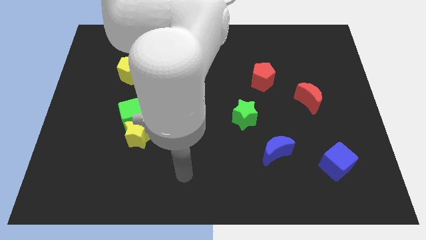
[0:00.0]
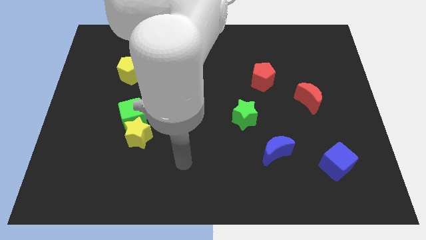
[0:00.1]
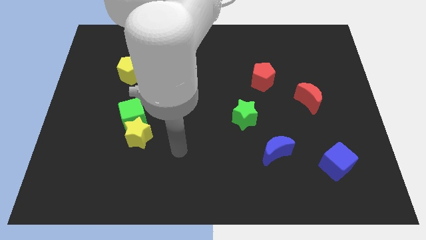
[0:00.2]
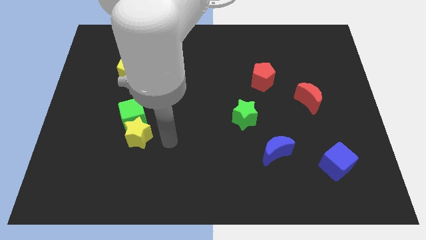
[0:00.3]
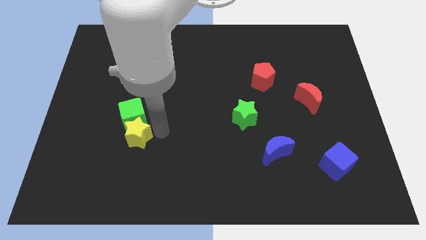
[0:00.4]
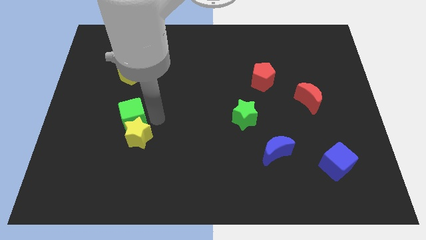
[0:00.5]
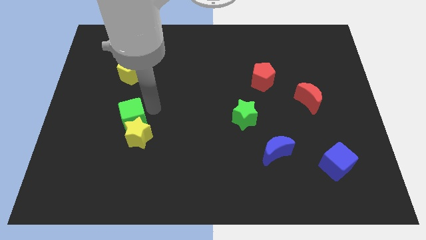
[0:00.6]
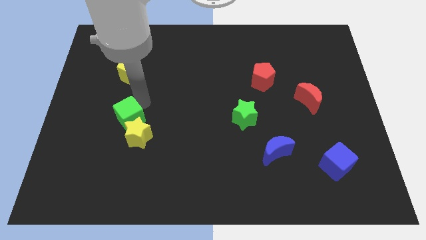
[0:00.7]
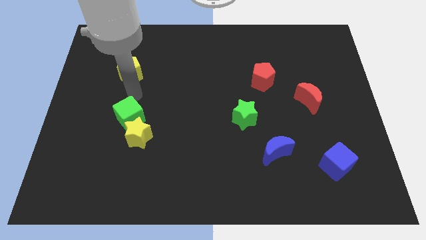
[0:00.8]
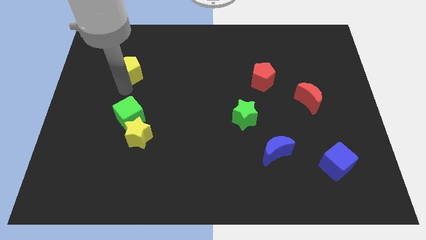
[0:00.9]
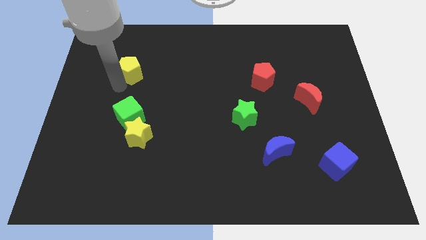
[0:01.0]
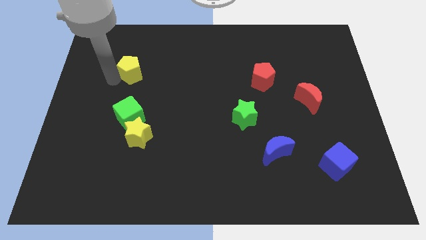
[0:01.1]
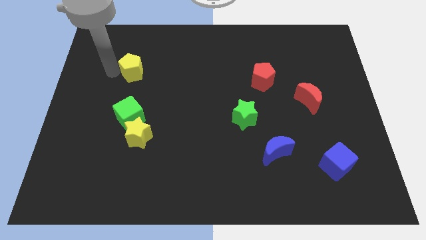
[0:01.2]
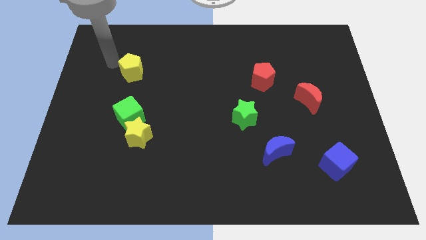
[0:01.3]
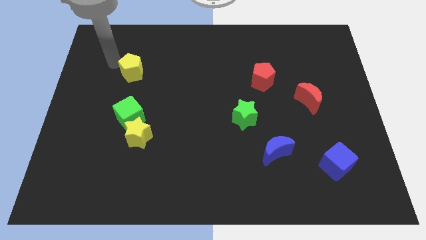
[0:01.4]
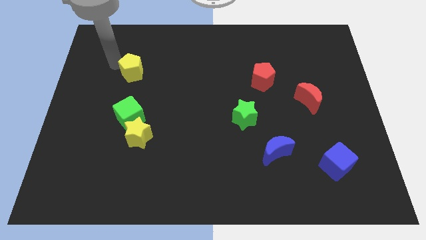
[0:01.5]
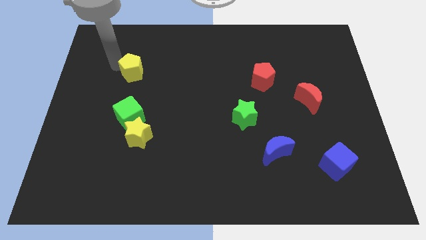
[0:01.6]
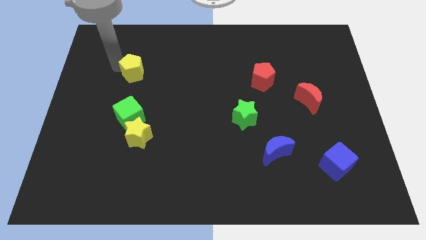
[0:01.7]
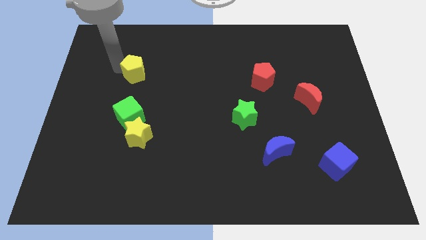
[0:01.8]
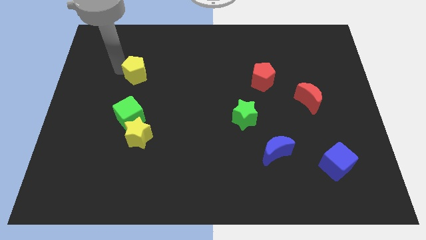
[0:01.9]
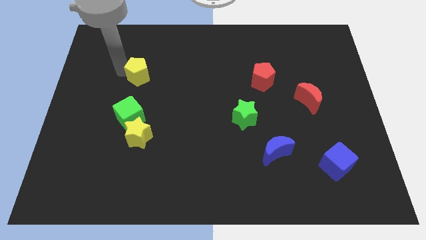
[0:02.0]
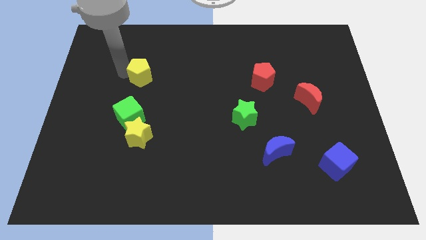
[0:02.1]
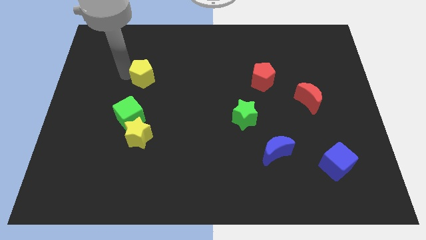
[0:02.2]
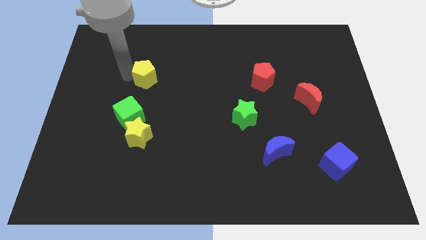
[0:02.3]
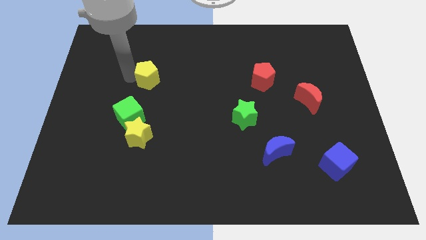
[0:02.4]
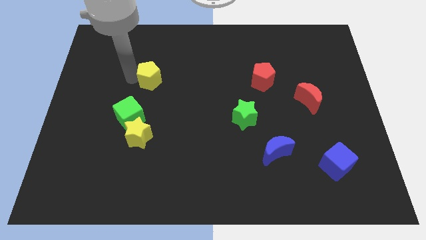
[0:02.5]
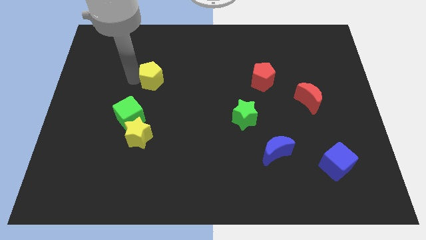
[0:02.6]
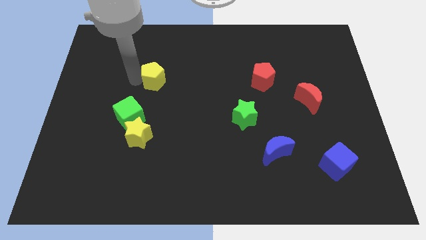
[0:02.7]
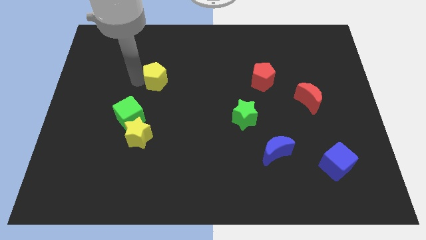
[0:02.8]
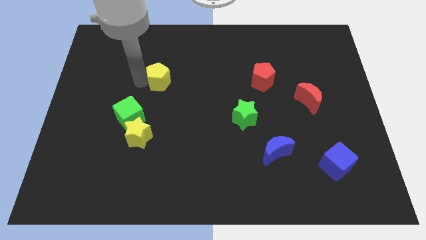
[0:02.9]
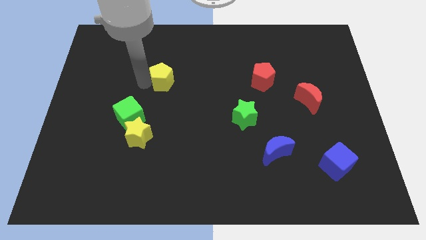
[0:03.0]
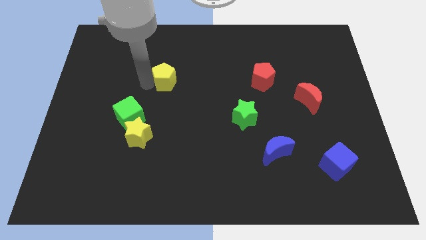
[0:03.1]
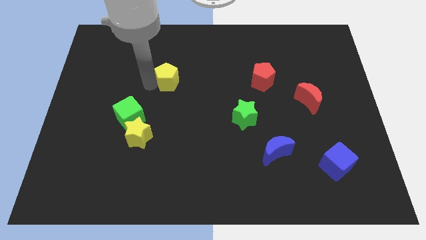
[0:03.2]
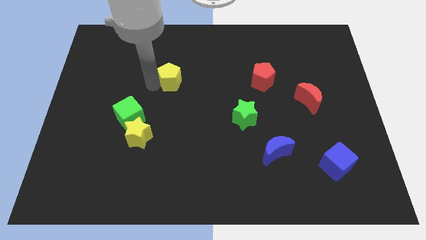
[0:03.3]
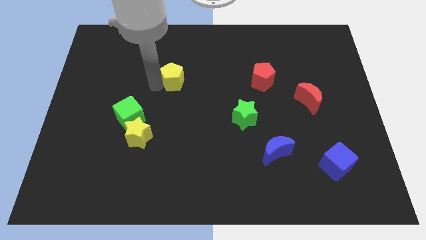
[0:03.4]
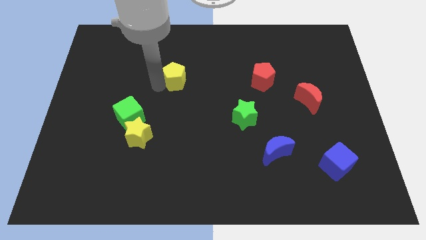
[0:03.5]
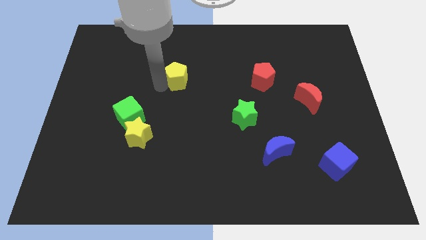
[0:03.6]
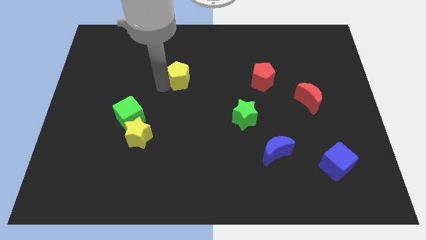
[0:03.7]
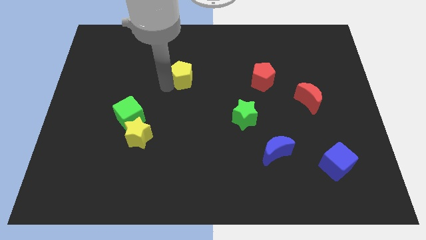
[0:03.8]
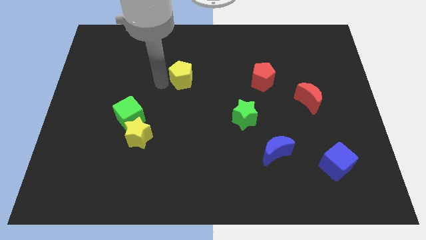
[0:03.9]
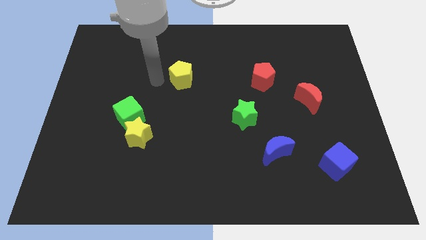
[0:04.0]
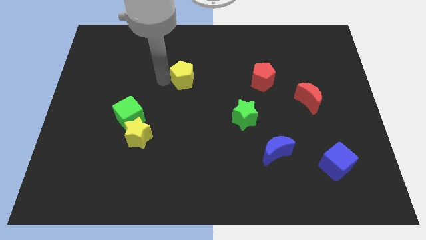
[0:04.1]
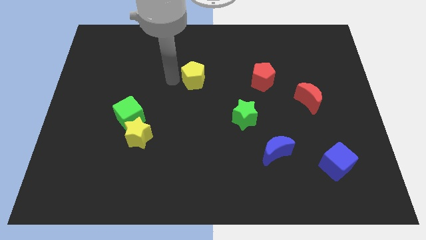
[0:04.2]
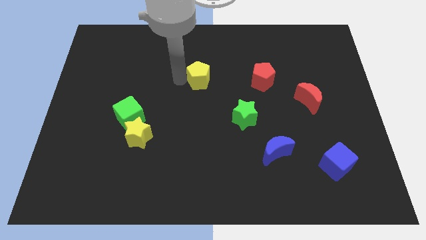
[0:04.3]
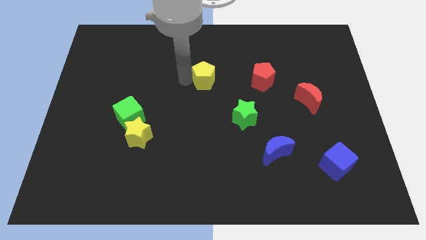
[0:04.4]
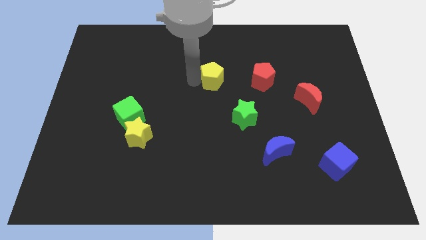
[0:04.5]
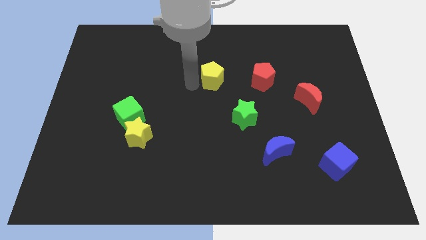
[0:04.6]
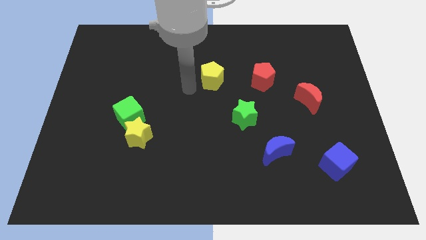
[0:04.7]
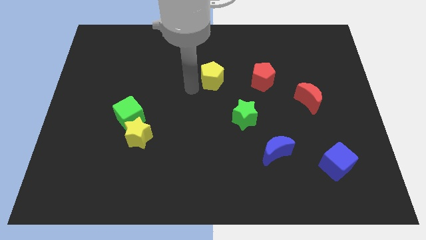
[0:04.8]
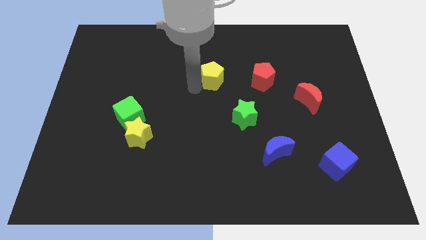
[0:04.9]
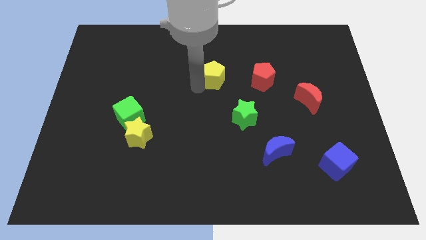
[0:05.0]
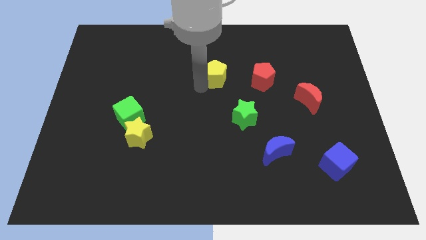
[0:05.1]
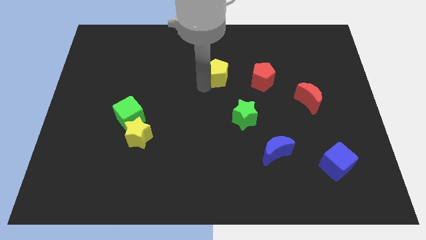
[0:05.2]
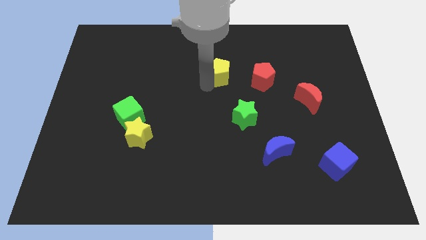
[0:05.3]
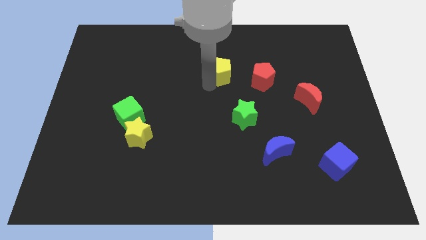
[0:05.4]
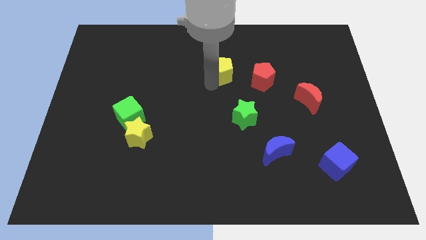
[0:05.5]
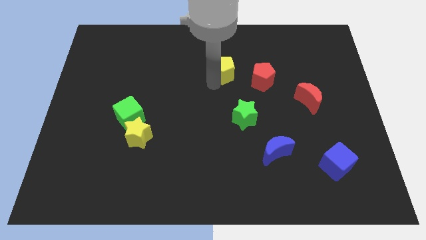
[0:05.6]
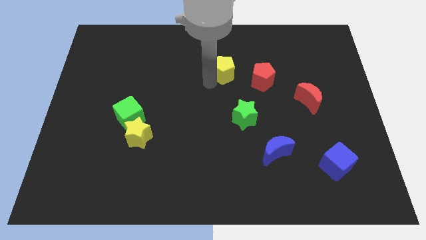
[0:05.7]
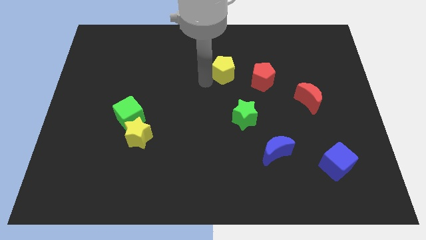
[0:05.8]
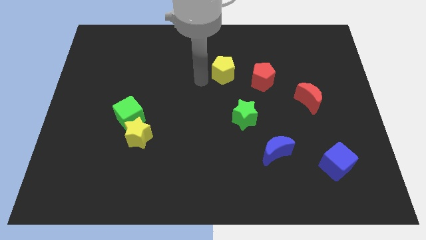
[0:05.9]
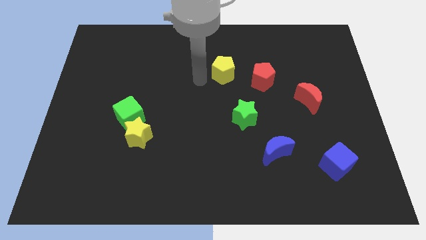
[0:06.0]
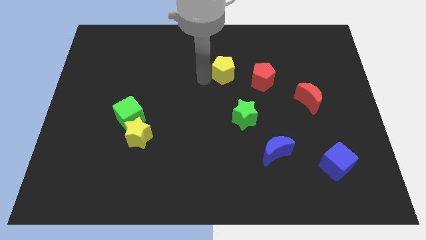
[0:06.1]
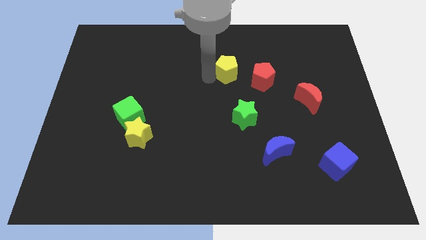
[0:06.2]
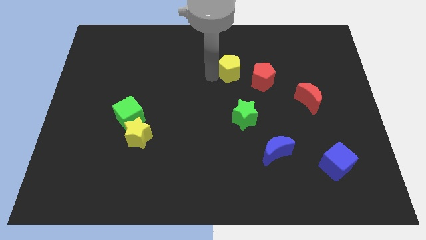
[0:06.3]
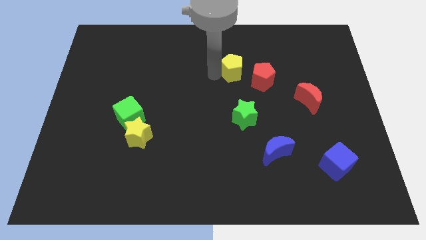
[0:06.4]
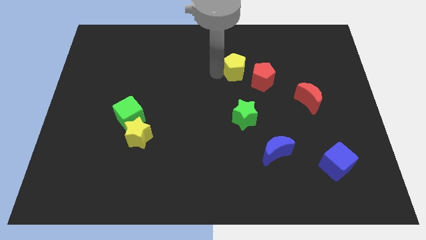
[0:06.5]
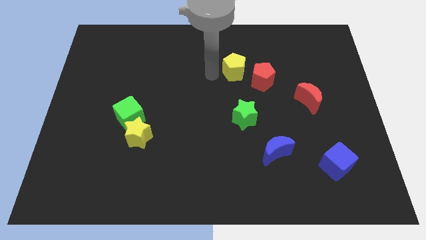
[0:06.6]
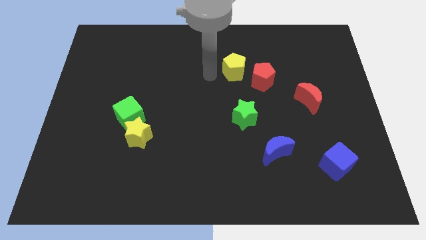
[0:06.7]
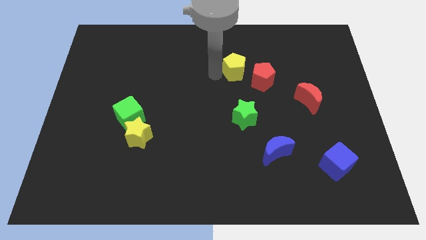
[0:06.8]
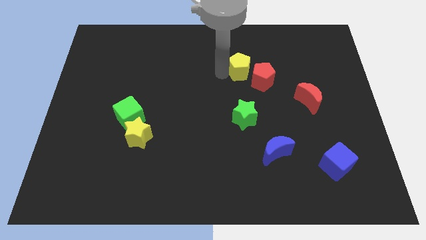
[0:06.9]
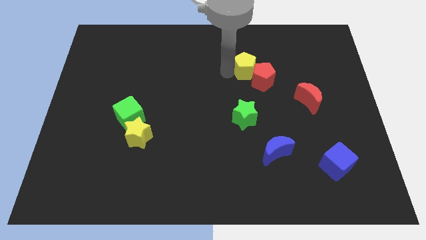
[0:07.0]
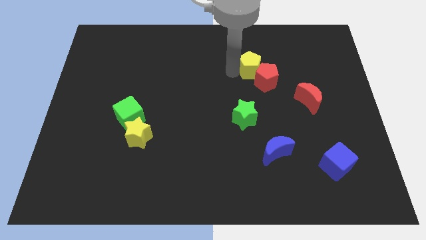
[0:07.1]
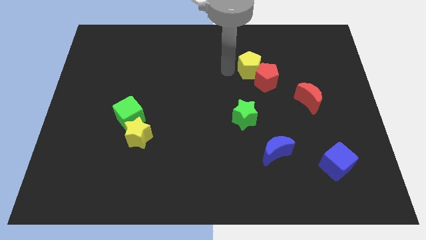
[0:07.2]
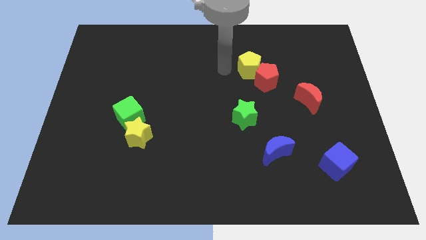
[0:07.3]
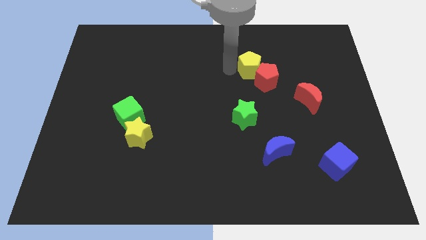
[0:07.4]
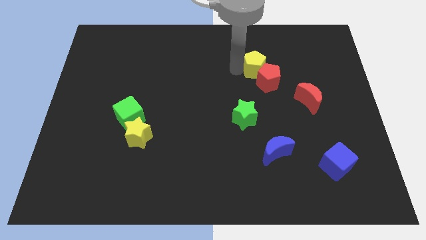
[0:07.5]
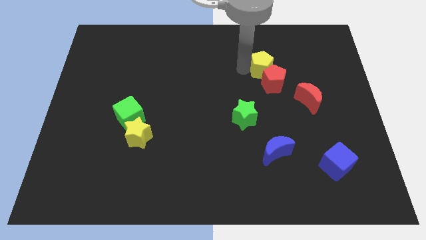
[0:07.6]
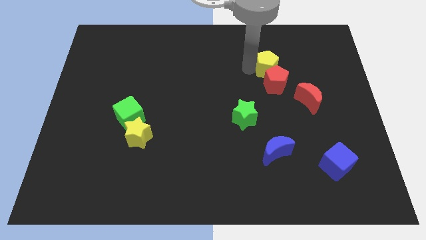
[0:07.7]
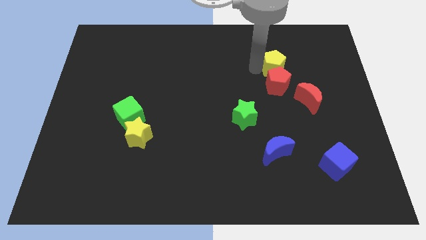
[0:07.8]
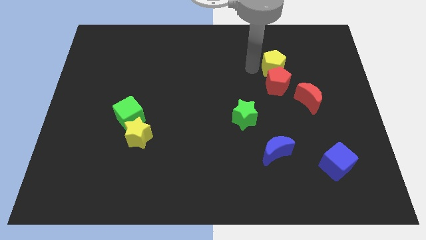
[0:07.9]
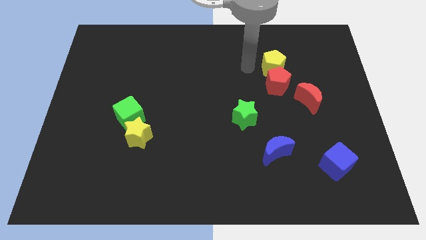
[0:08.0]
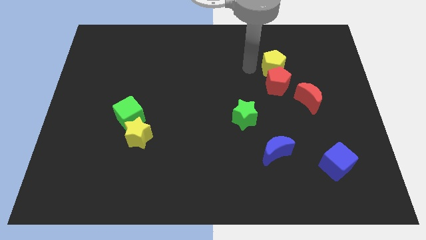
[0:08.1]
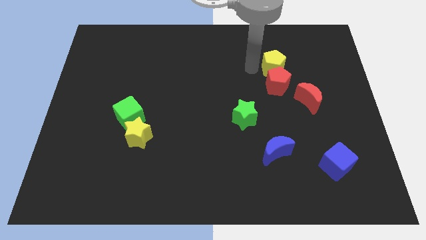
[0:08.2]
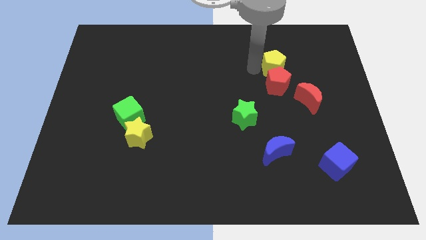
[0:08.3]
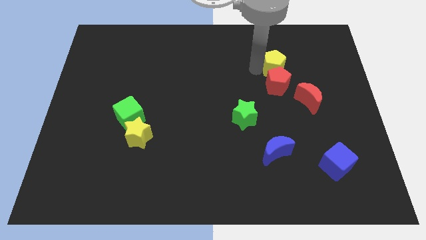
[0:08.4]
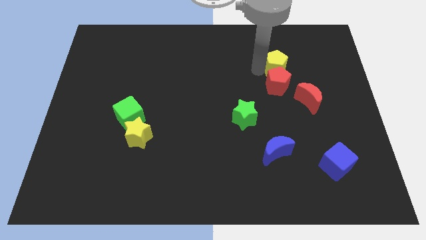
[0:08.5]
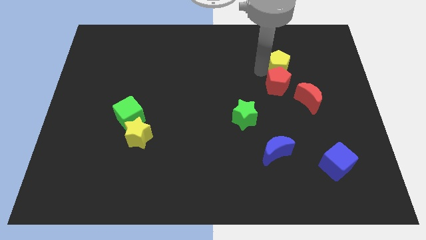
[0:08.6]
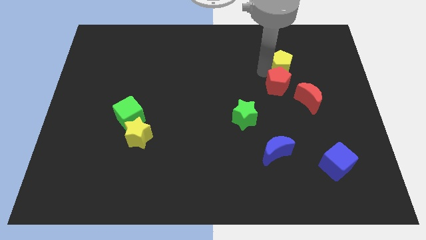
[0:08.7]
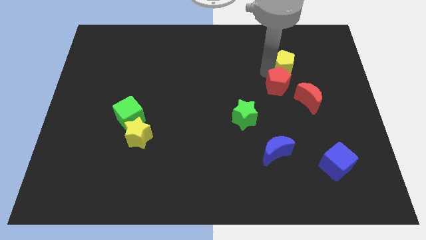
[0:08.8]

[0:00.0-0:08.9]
push the yellow pentagon to the top of the red moon
